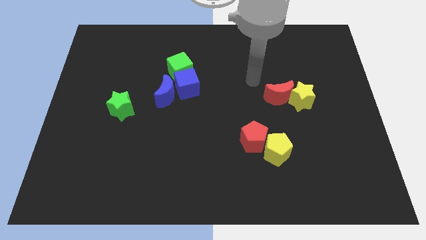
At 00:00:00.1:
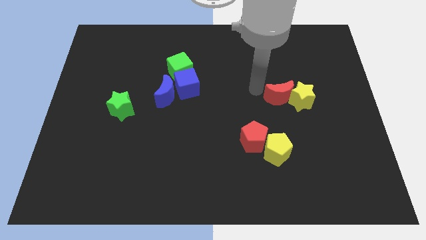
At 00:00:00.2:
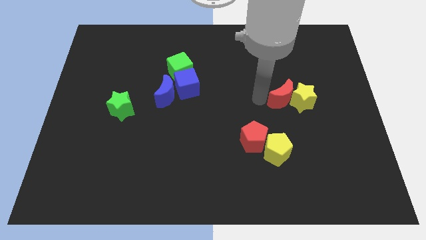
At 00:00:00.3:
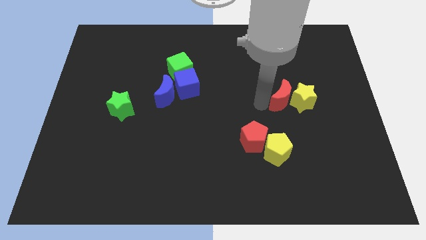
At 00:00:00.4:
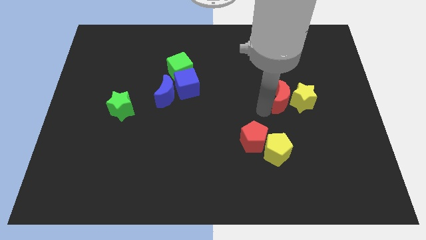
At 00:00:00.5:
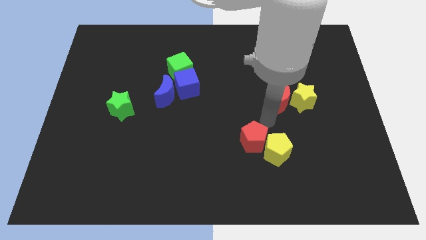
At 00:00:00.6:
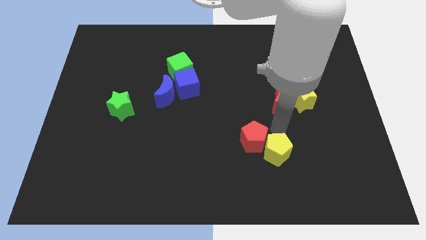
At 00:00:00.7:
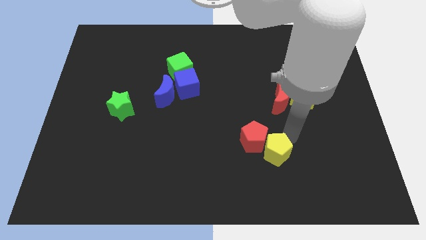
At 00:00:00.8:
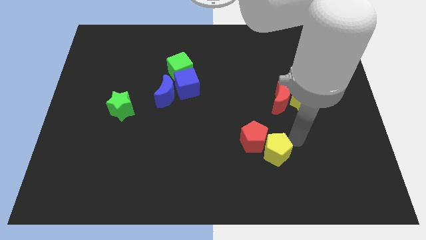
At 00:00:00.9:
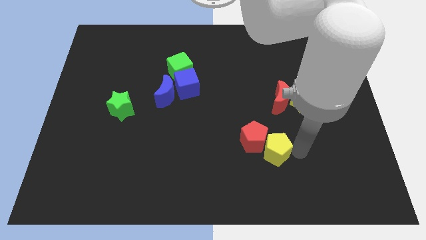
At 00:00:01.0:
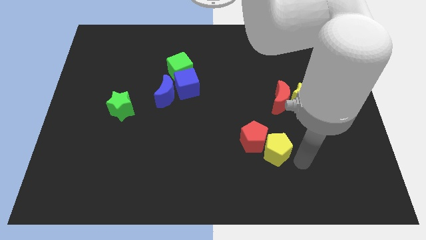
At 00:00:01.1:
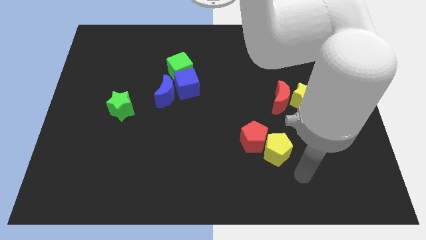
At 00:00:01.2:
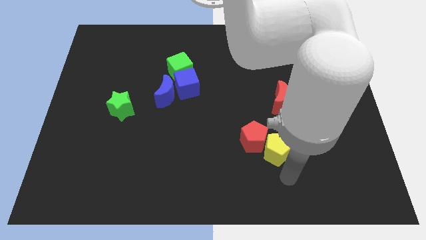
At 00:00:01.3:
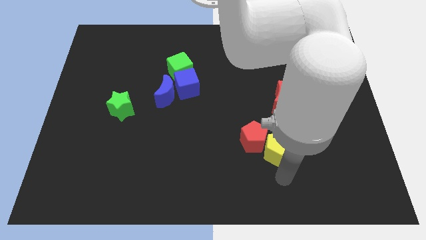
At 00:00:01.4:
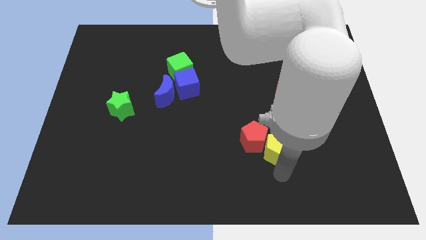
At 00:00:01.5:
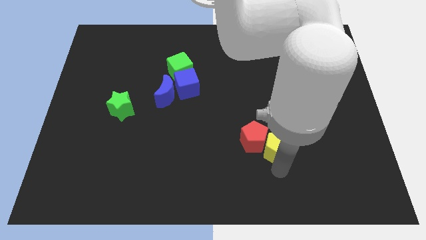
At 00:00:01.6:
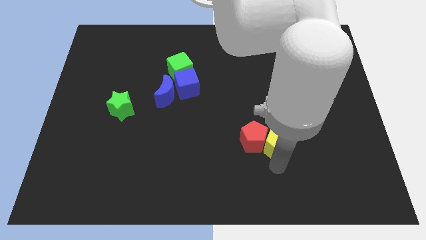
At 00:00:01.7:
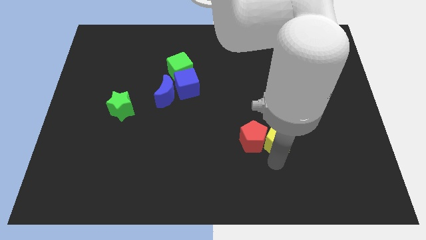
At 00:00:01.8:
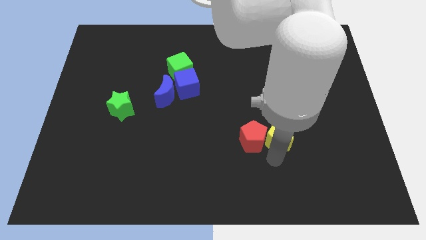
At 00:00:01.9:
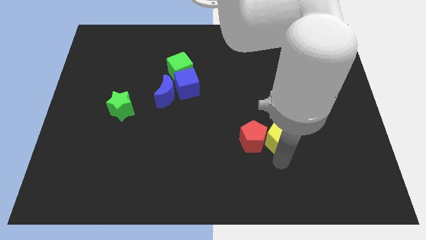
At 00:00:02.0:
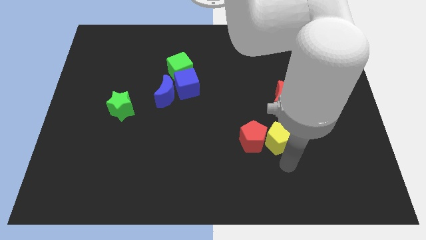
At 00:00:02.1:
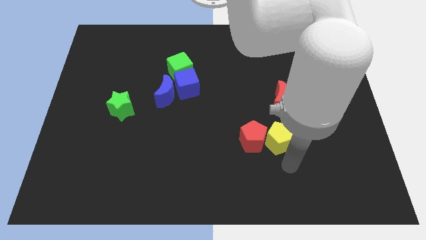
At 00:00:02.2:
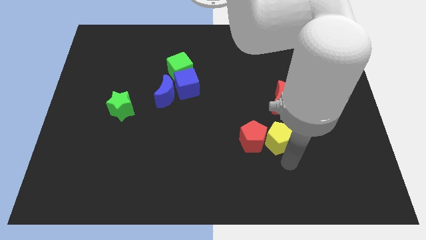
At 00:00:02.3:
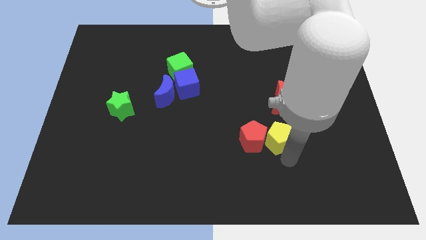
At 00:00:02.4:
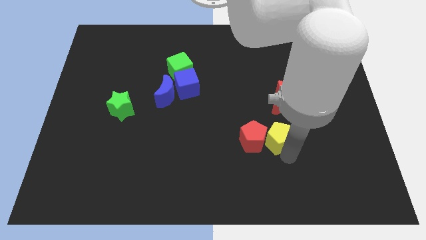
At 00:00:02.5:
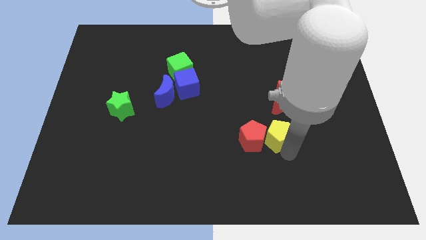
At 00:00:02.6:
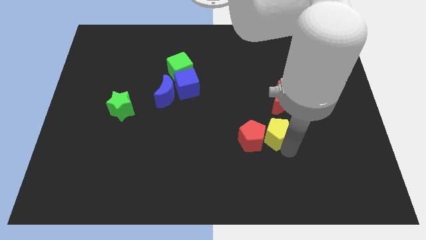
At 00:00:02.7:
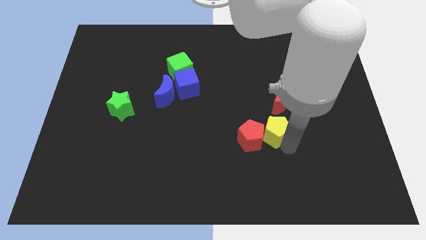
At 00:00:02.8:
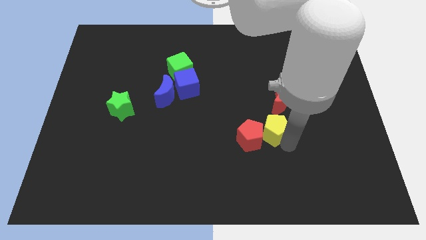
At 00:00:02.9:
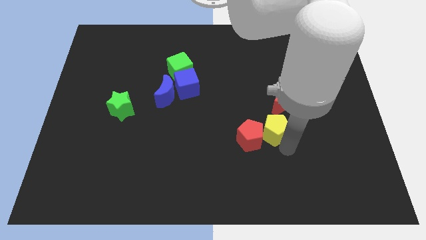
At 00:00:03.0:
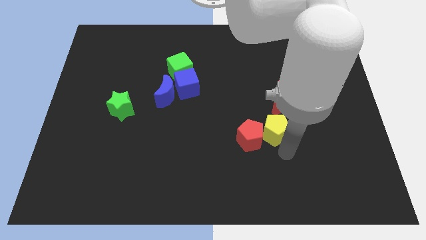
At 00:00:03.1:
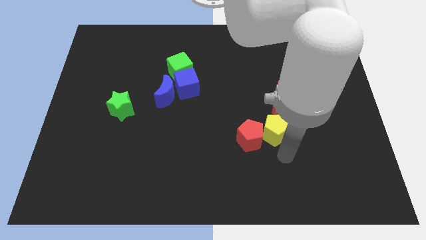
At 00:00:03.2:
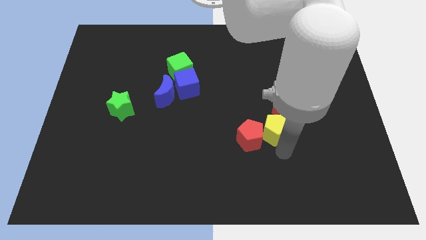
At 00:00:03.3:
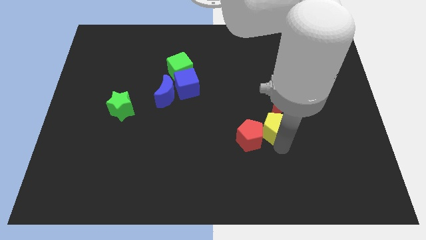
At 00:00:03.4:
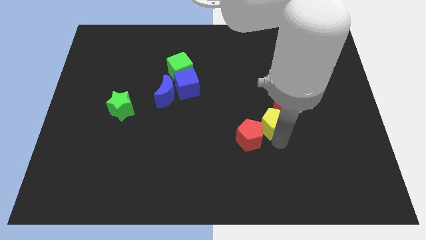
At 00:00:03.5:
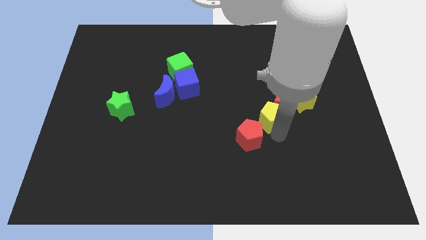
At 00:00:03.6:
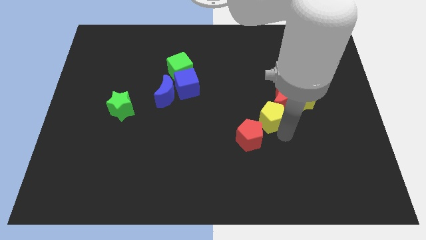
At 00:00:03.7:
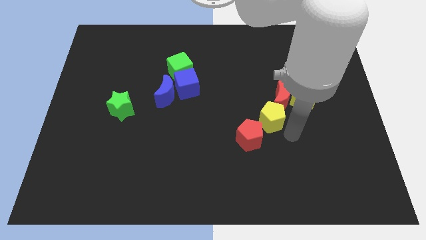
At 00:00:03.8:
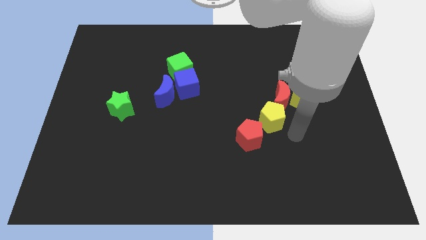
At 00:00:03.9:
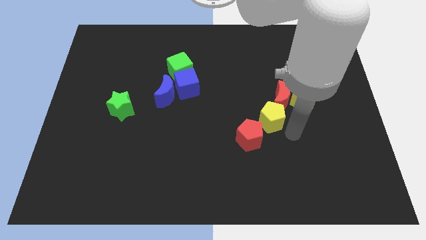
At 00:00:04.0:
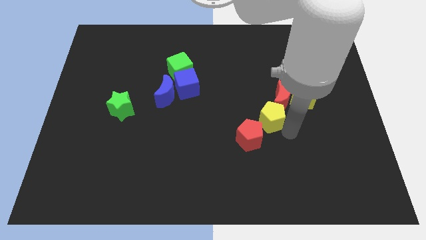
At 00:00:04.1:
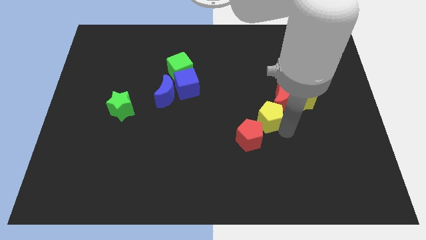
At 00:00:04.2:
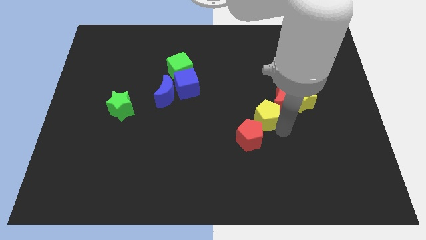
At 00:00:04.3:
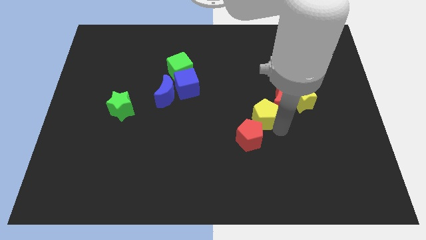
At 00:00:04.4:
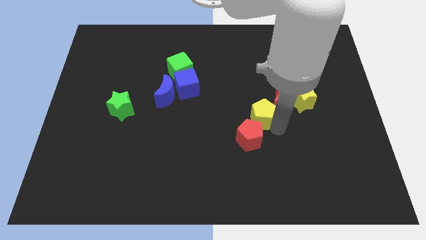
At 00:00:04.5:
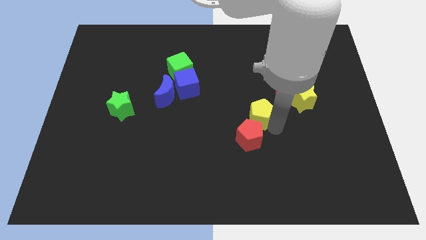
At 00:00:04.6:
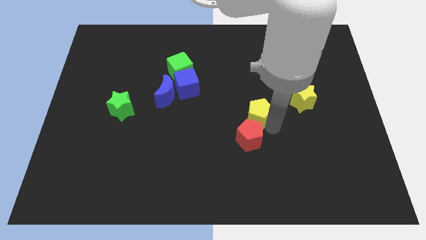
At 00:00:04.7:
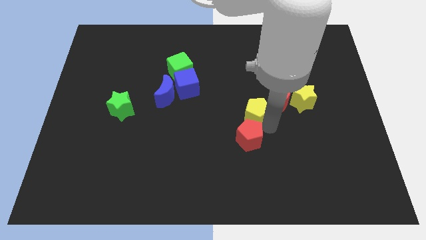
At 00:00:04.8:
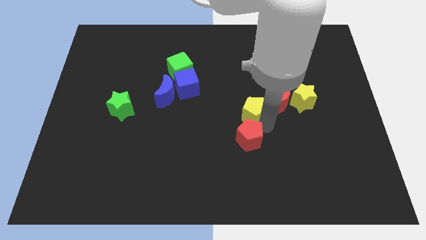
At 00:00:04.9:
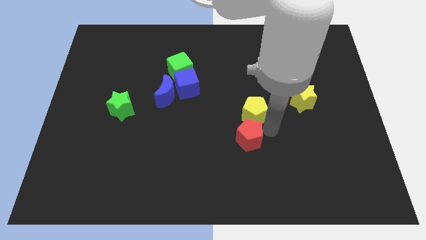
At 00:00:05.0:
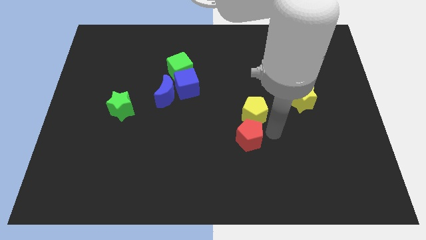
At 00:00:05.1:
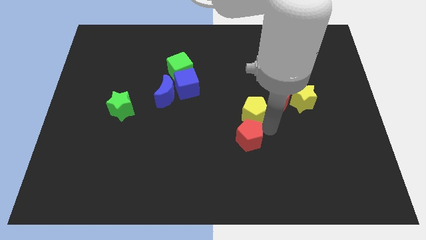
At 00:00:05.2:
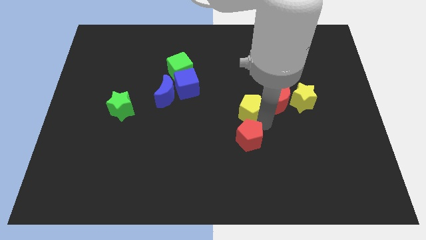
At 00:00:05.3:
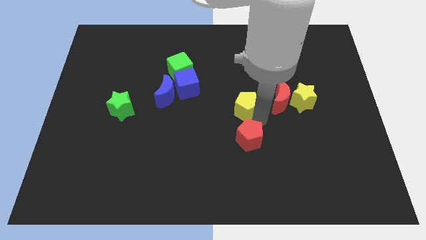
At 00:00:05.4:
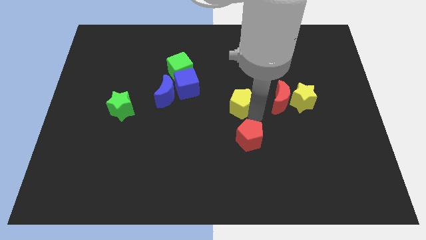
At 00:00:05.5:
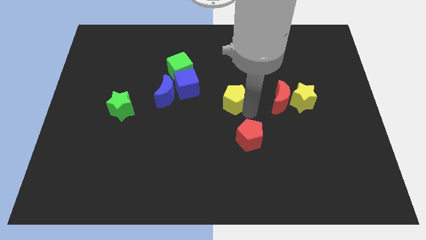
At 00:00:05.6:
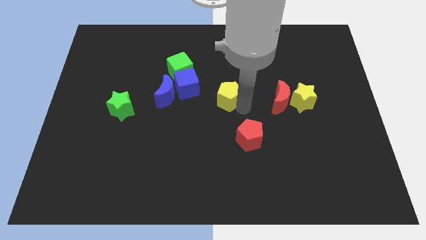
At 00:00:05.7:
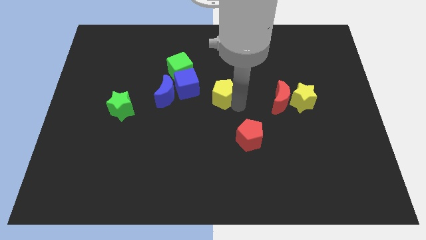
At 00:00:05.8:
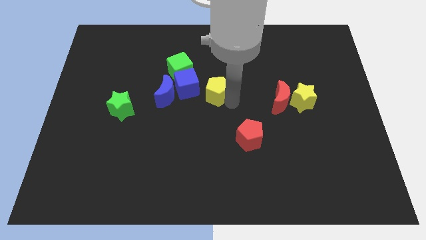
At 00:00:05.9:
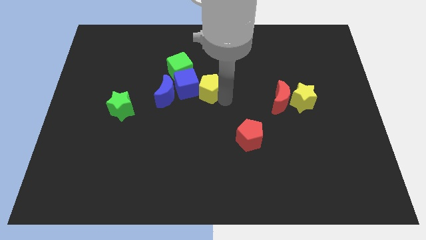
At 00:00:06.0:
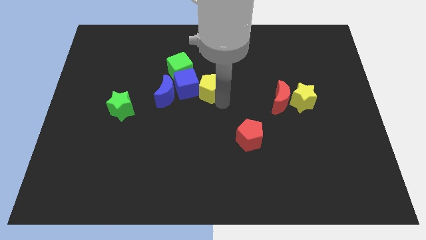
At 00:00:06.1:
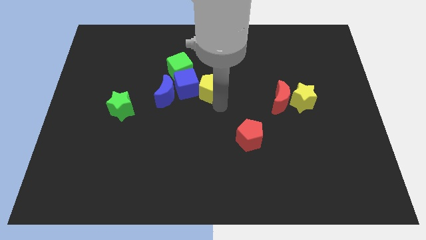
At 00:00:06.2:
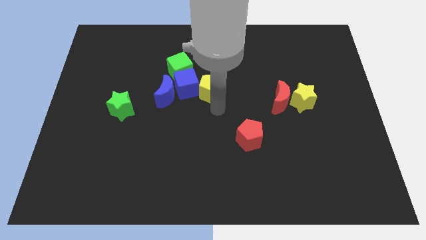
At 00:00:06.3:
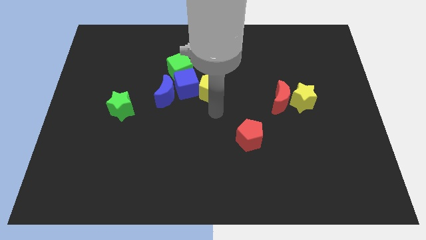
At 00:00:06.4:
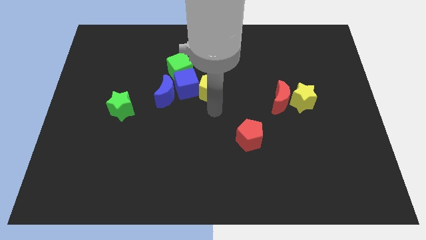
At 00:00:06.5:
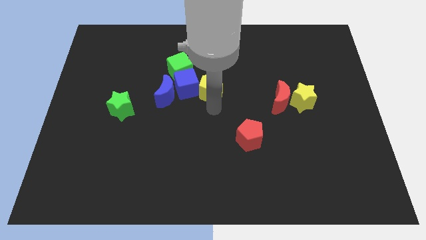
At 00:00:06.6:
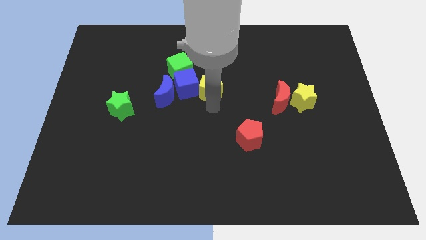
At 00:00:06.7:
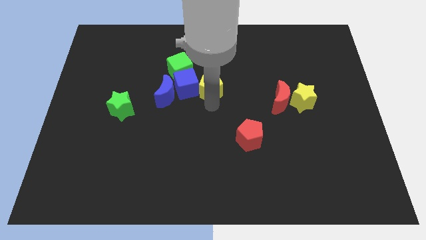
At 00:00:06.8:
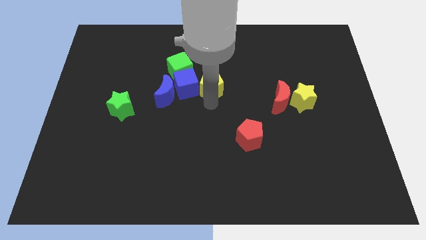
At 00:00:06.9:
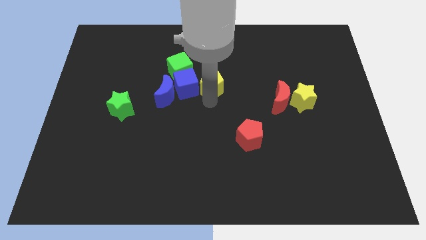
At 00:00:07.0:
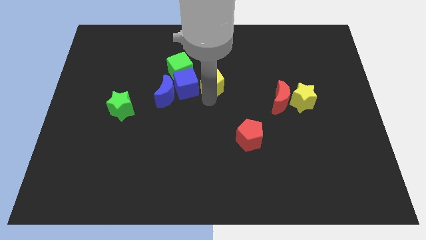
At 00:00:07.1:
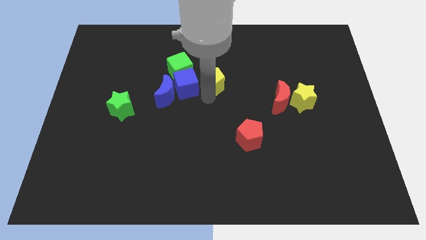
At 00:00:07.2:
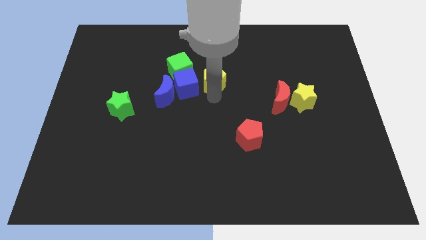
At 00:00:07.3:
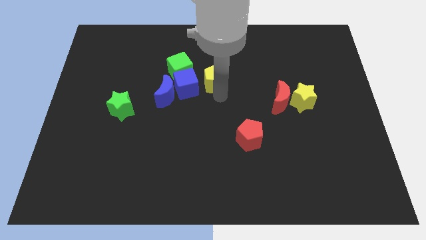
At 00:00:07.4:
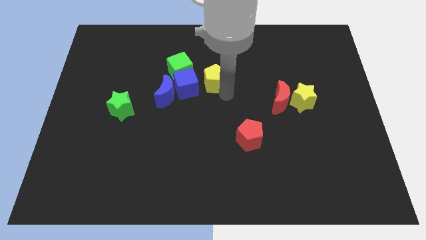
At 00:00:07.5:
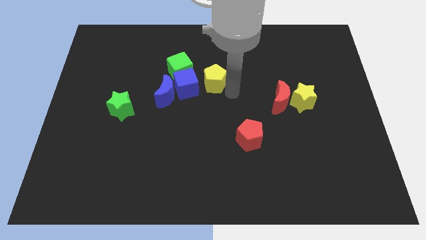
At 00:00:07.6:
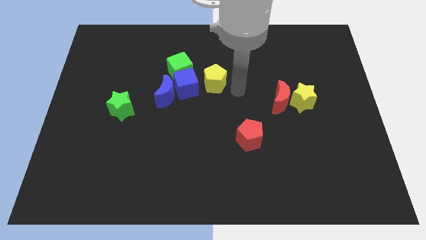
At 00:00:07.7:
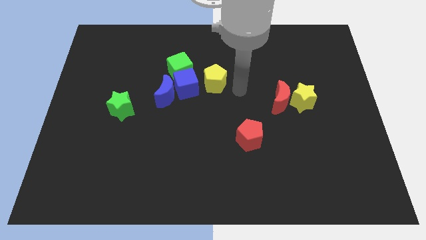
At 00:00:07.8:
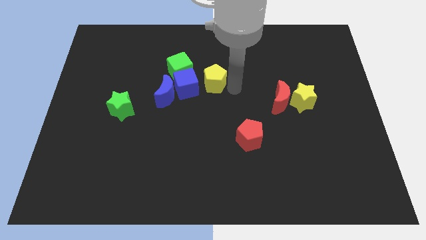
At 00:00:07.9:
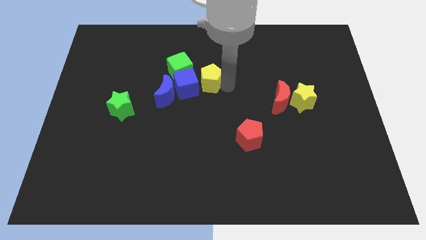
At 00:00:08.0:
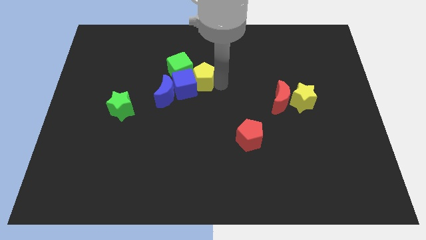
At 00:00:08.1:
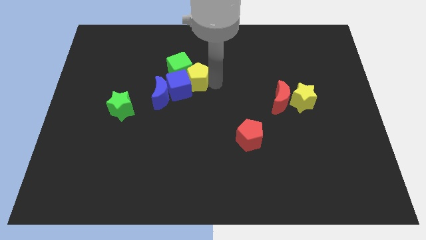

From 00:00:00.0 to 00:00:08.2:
put the yellow pentagon next to the green cube
